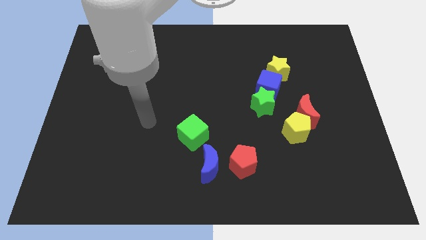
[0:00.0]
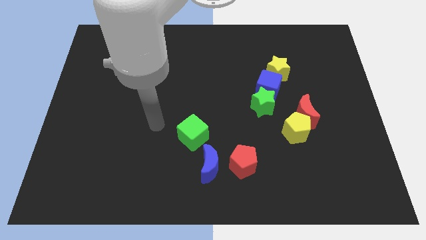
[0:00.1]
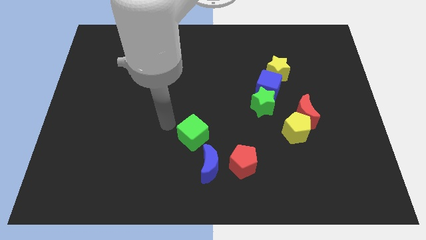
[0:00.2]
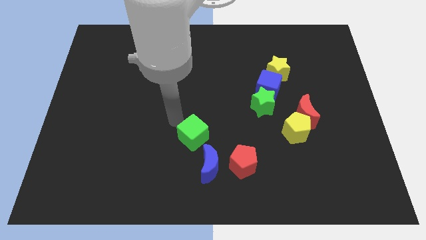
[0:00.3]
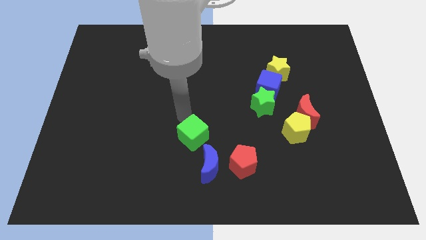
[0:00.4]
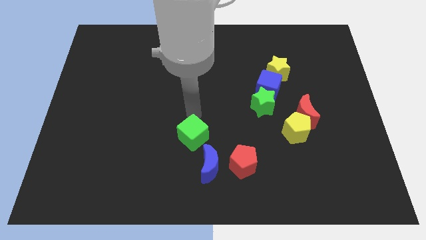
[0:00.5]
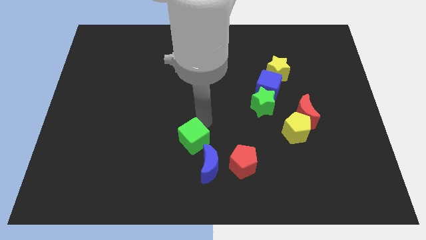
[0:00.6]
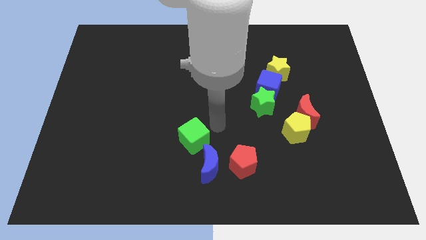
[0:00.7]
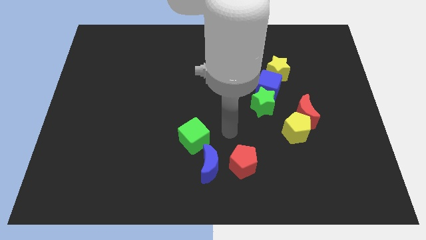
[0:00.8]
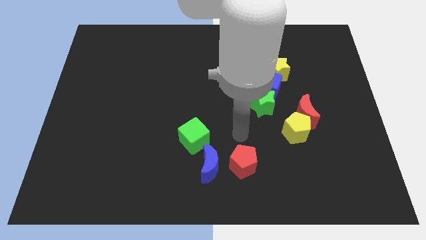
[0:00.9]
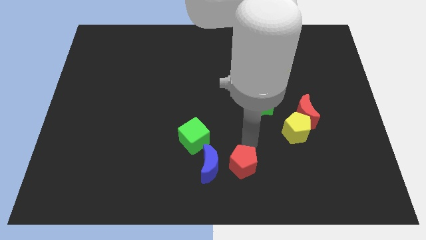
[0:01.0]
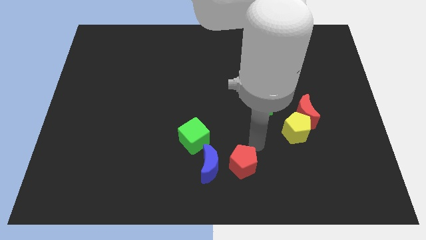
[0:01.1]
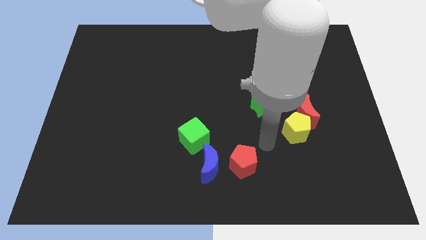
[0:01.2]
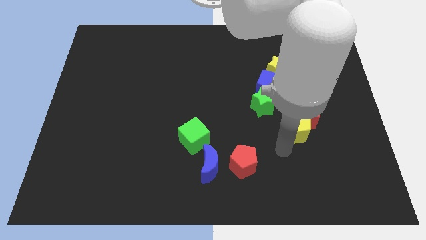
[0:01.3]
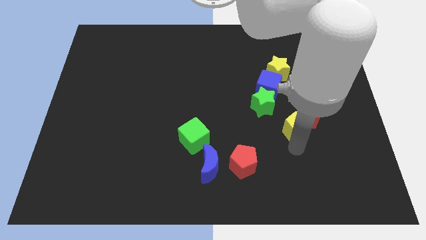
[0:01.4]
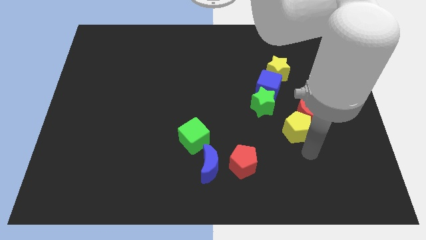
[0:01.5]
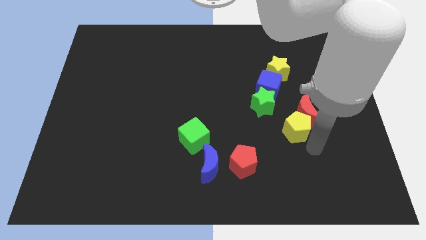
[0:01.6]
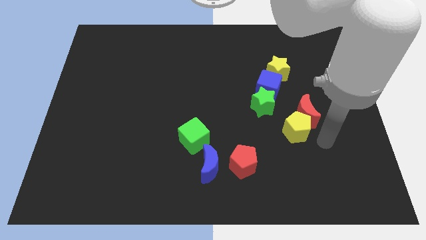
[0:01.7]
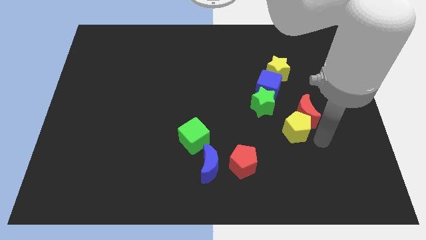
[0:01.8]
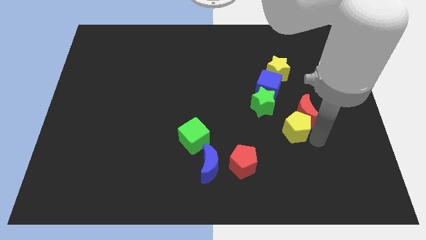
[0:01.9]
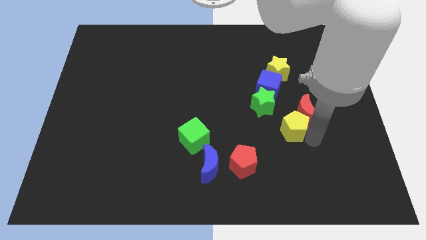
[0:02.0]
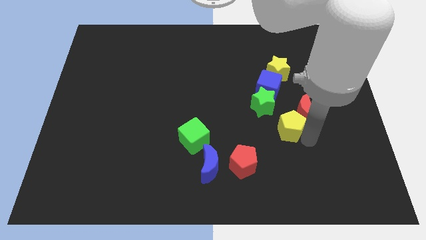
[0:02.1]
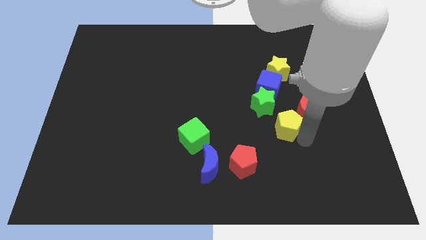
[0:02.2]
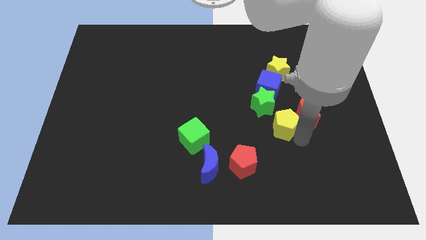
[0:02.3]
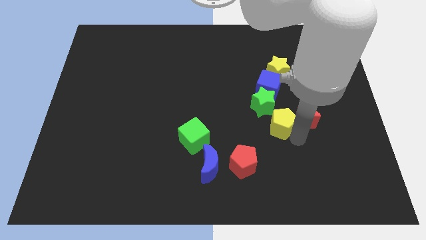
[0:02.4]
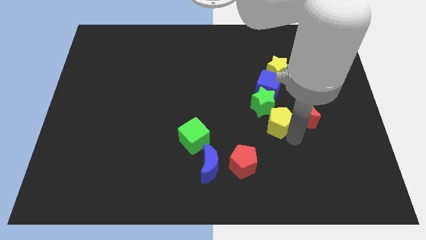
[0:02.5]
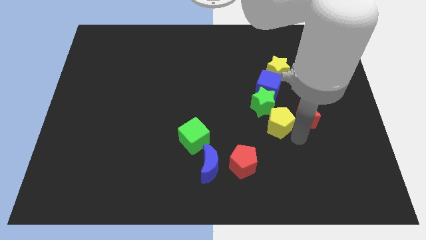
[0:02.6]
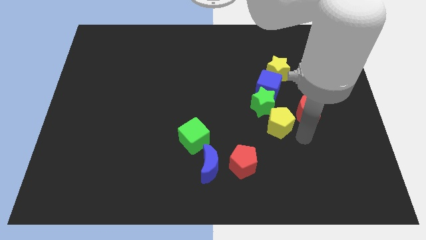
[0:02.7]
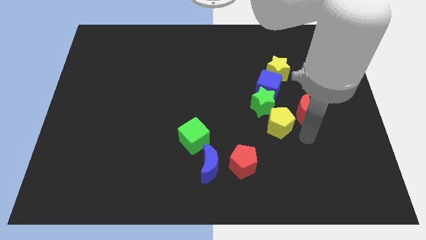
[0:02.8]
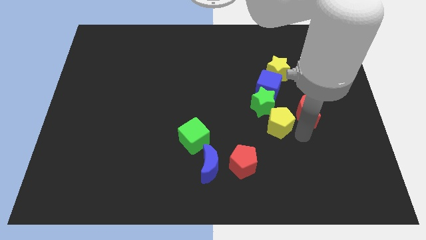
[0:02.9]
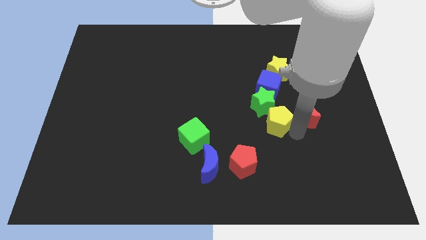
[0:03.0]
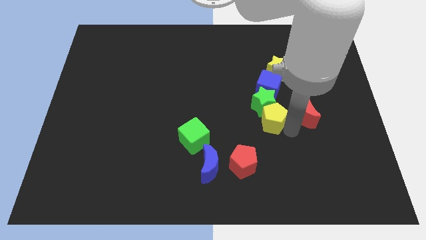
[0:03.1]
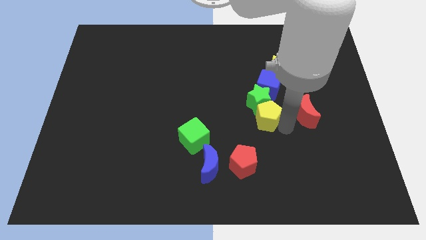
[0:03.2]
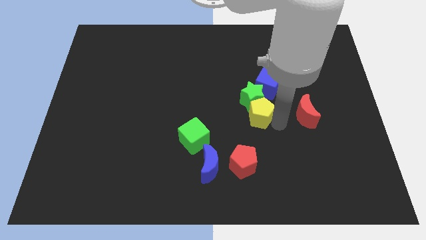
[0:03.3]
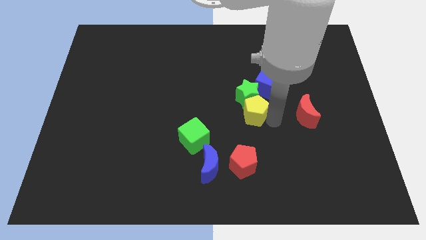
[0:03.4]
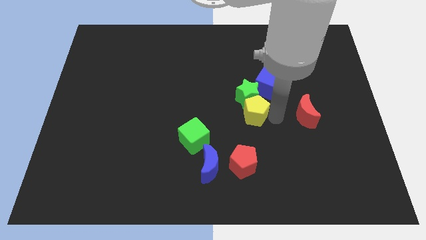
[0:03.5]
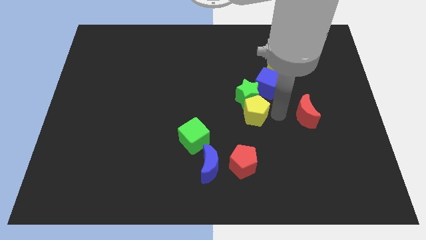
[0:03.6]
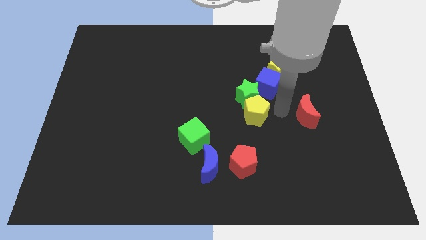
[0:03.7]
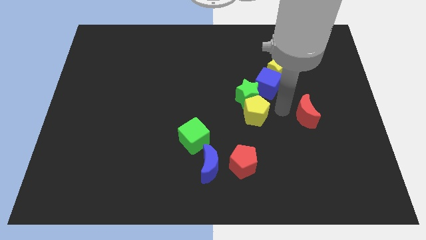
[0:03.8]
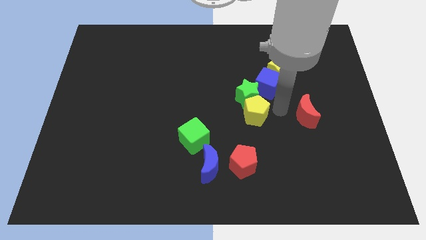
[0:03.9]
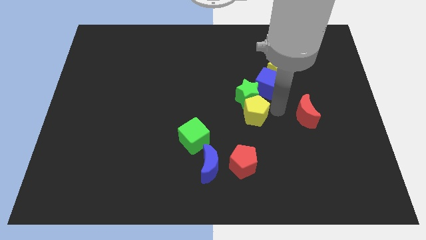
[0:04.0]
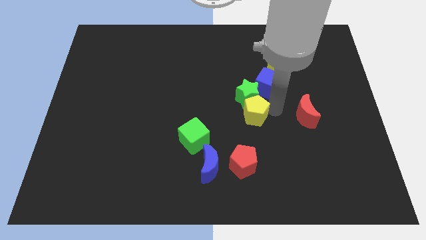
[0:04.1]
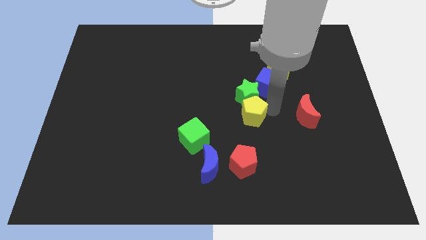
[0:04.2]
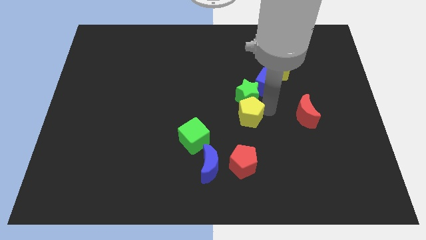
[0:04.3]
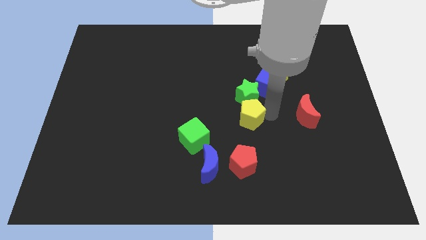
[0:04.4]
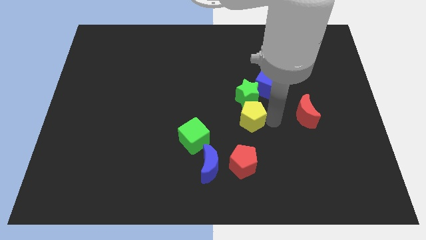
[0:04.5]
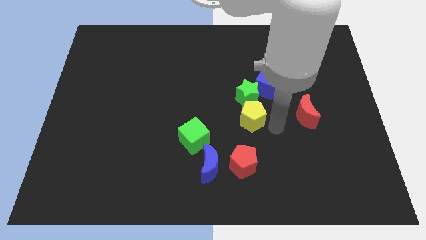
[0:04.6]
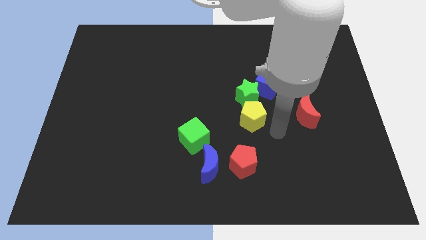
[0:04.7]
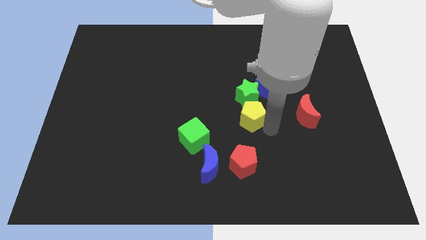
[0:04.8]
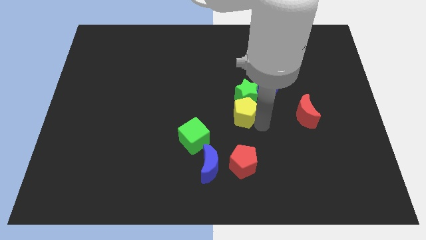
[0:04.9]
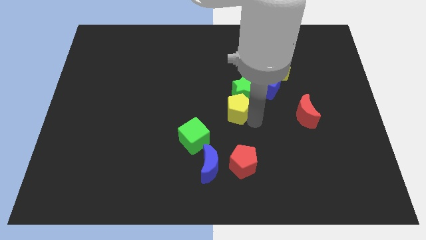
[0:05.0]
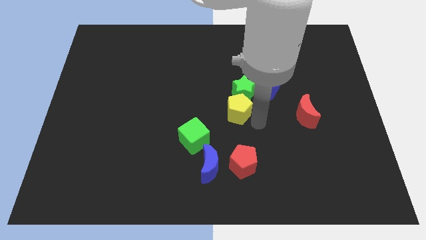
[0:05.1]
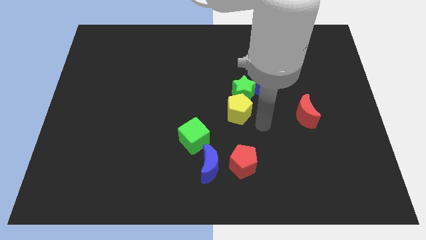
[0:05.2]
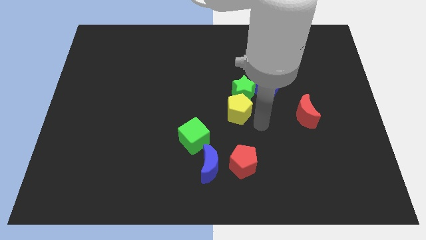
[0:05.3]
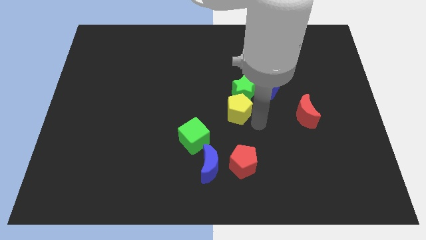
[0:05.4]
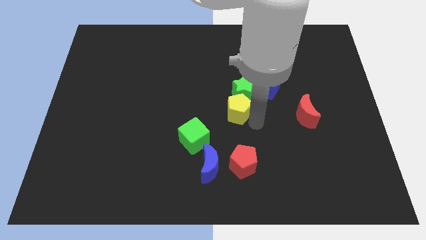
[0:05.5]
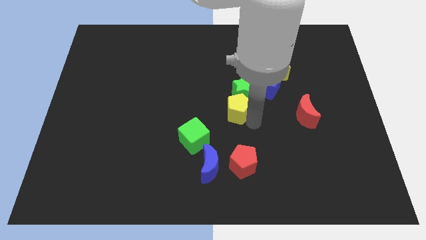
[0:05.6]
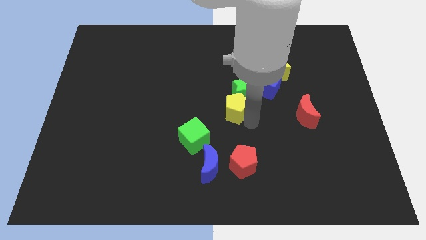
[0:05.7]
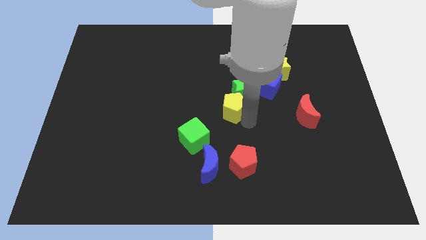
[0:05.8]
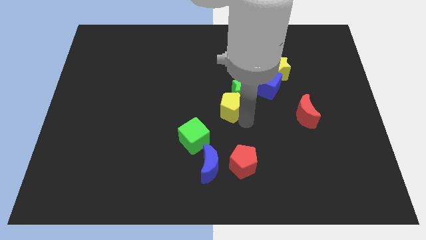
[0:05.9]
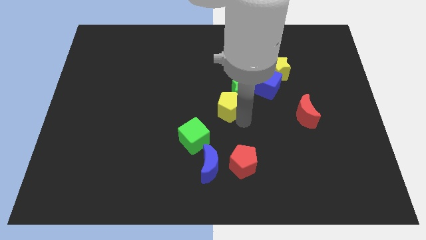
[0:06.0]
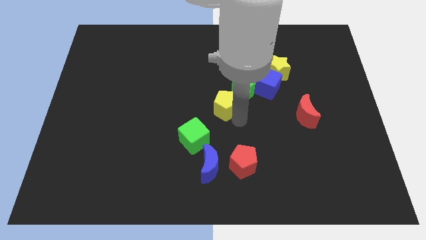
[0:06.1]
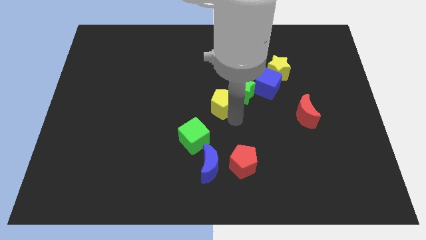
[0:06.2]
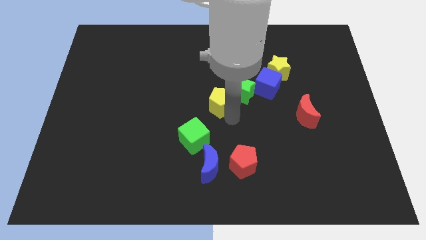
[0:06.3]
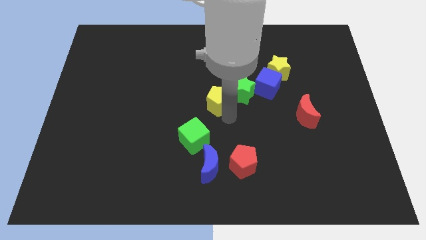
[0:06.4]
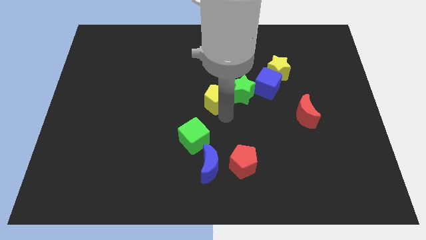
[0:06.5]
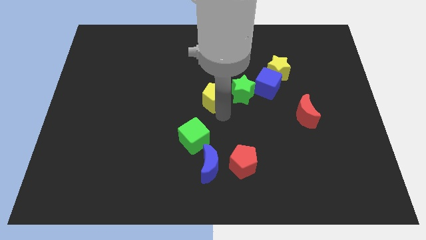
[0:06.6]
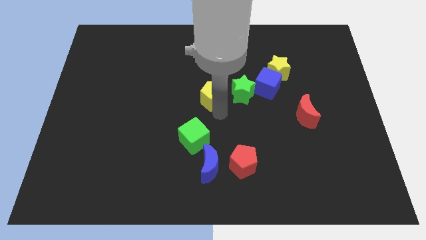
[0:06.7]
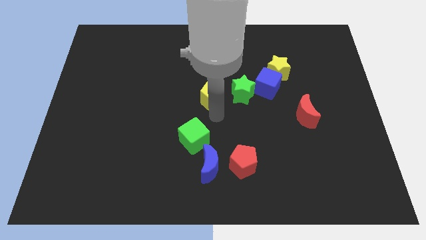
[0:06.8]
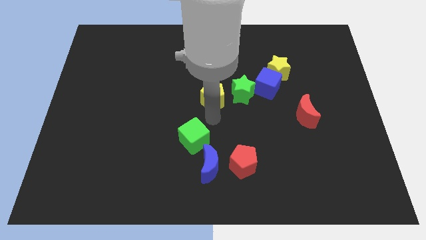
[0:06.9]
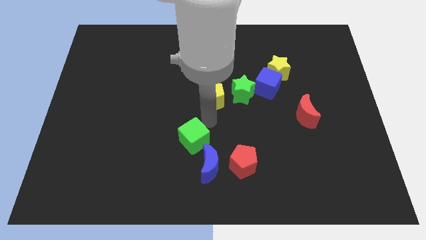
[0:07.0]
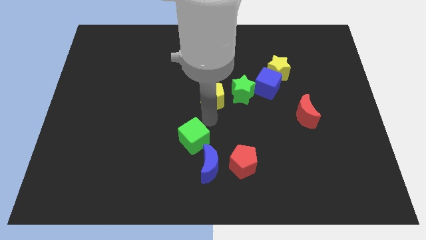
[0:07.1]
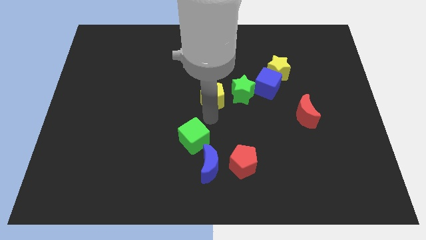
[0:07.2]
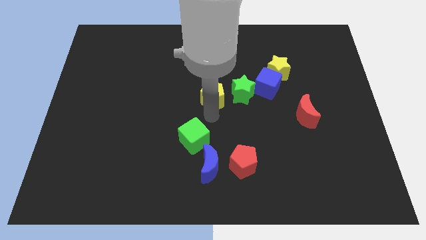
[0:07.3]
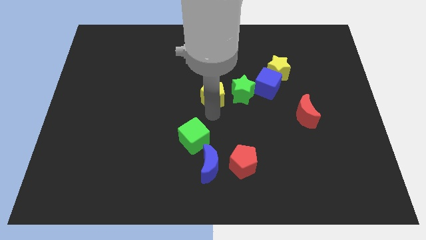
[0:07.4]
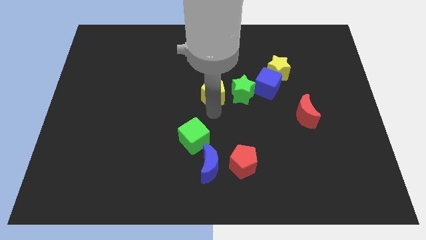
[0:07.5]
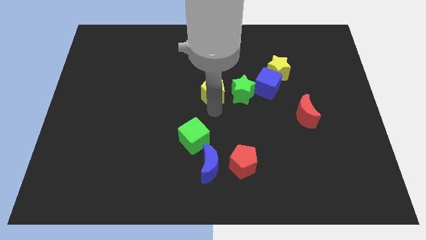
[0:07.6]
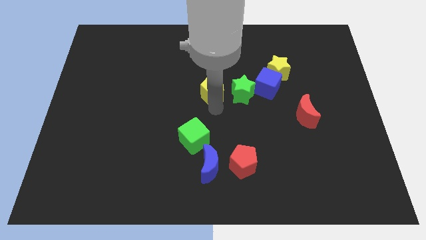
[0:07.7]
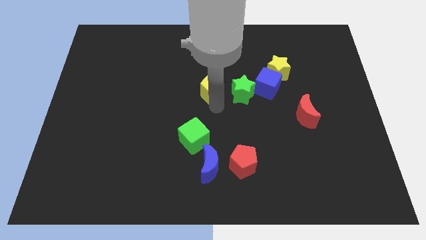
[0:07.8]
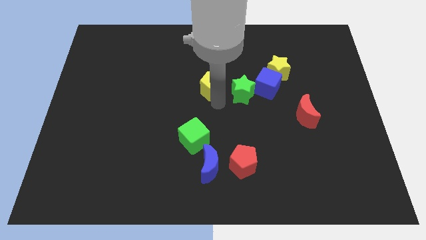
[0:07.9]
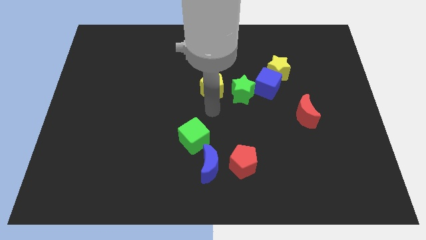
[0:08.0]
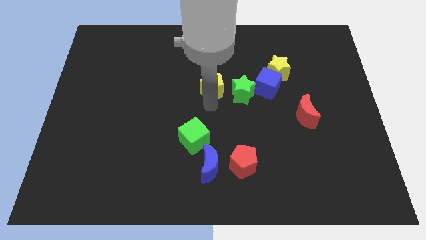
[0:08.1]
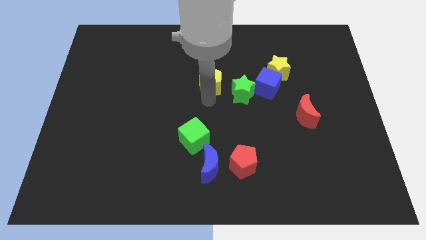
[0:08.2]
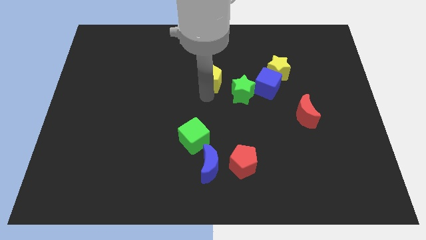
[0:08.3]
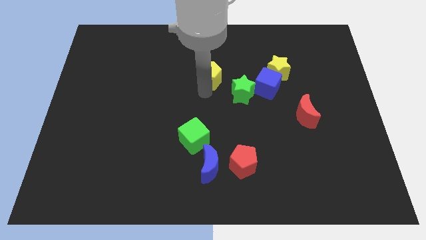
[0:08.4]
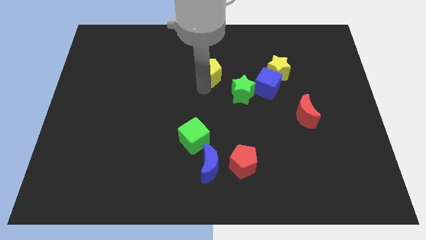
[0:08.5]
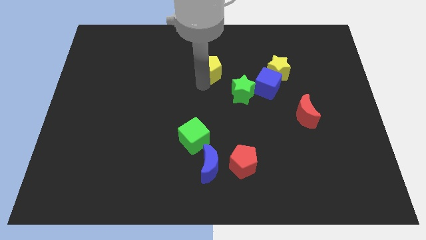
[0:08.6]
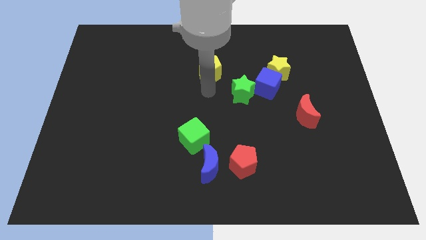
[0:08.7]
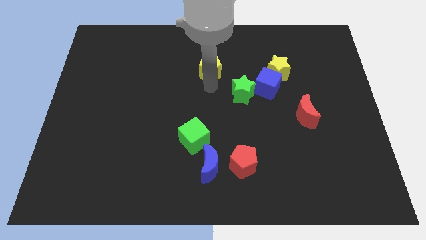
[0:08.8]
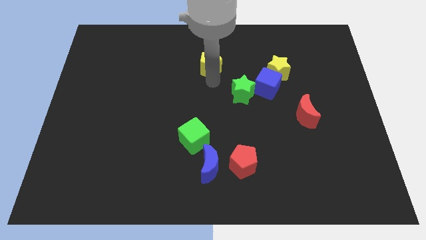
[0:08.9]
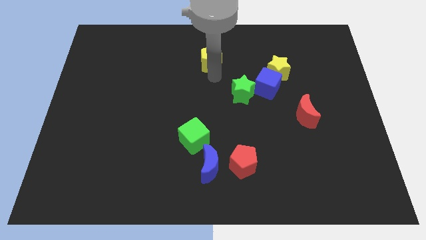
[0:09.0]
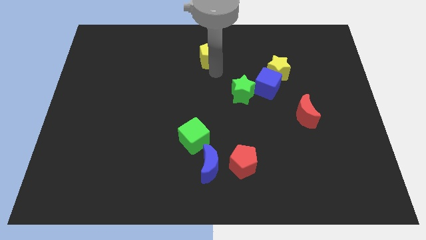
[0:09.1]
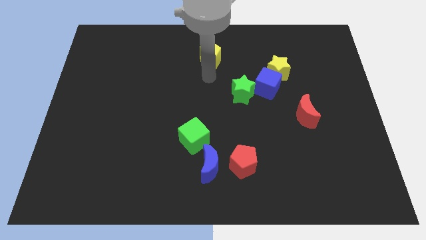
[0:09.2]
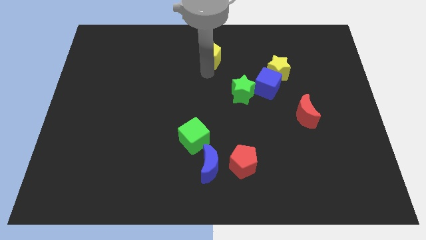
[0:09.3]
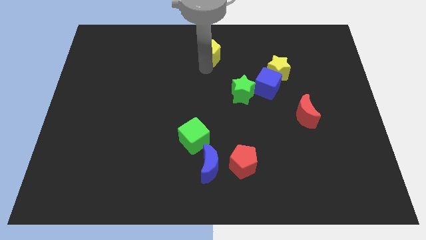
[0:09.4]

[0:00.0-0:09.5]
slide the yellow pentagon to the towards your base
